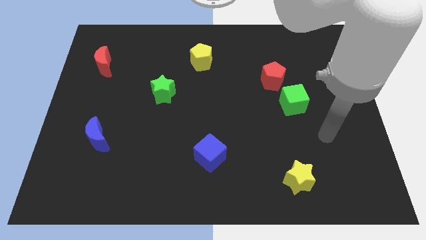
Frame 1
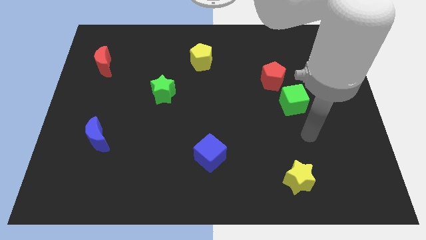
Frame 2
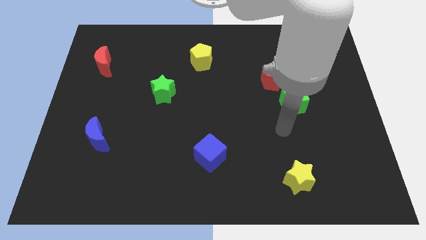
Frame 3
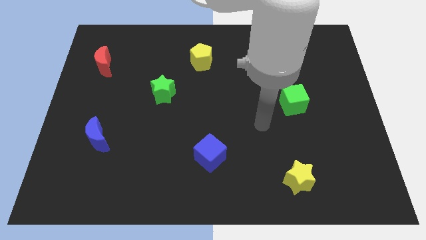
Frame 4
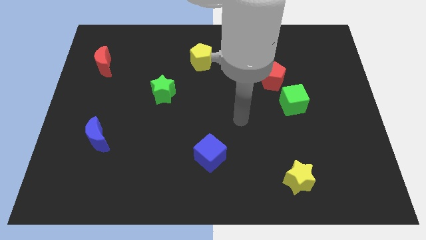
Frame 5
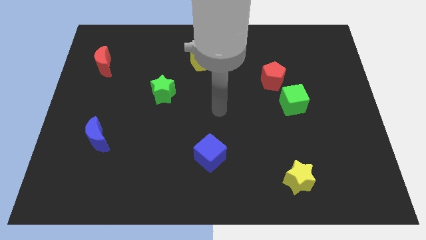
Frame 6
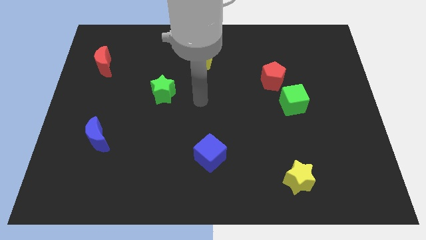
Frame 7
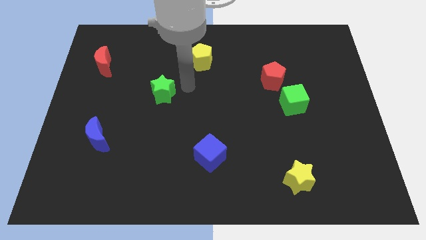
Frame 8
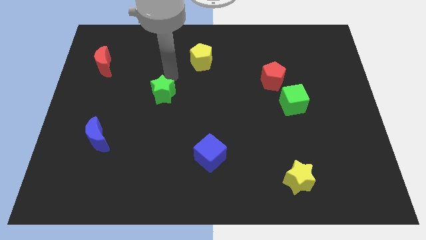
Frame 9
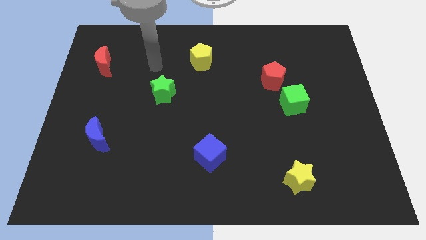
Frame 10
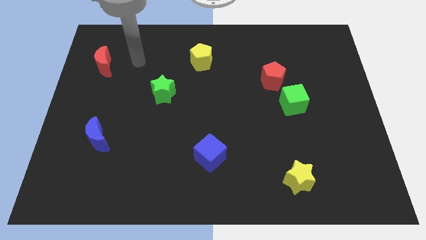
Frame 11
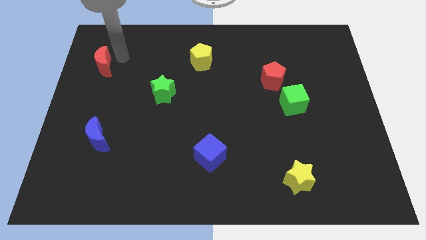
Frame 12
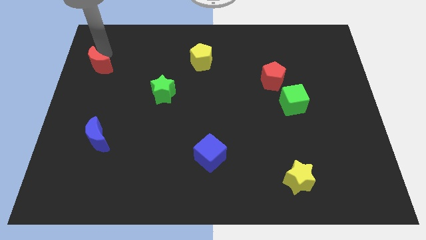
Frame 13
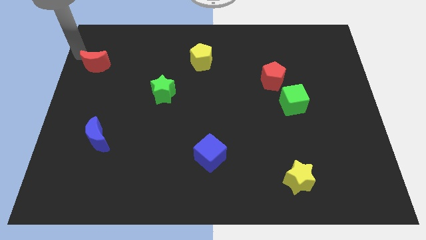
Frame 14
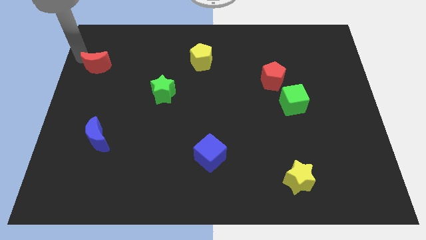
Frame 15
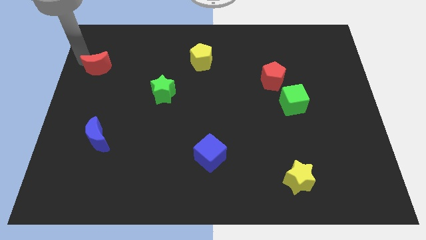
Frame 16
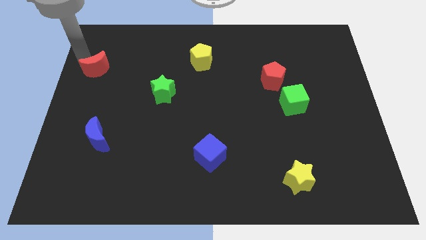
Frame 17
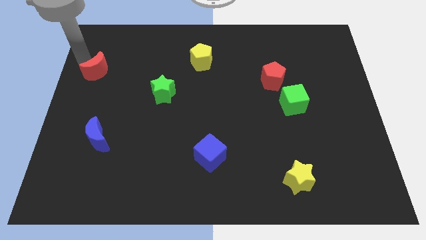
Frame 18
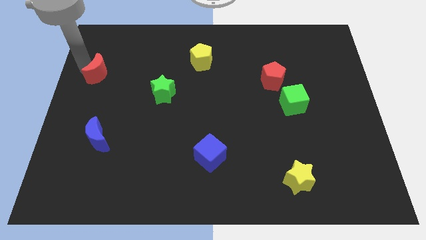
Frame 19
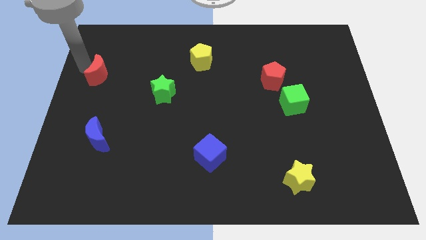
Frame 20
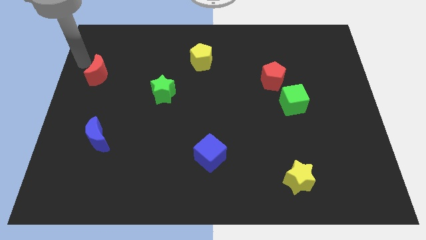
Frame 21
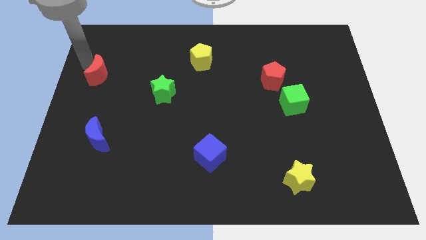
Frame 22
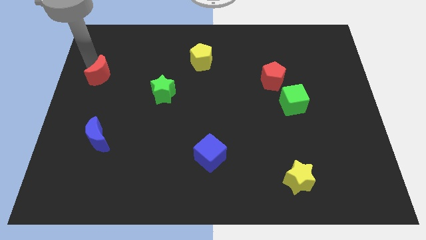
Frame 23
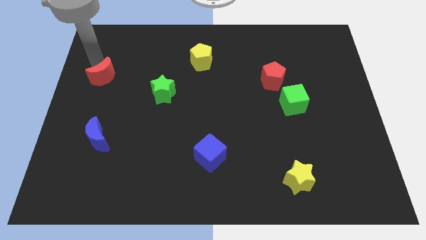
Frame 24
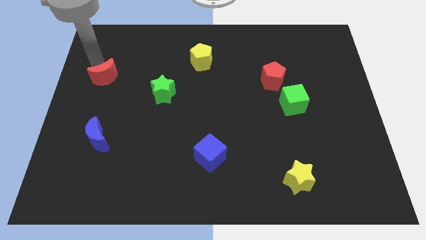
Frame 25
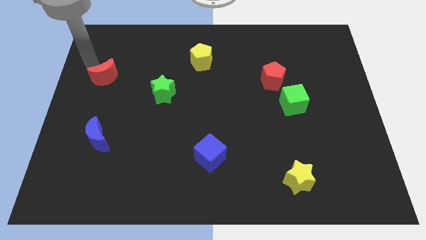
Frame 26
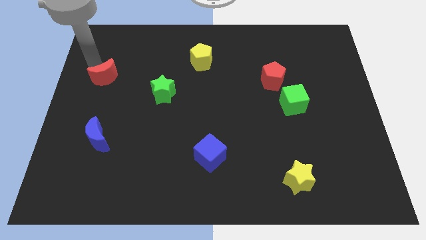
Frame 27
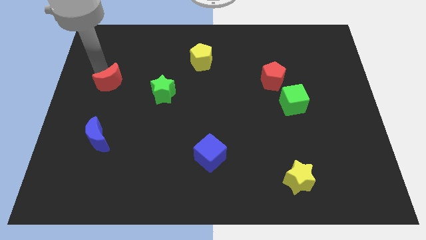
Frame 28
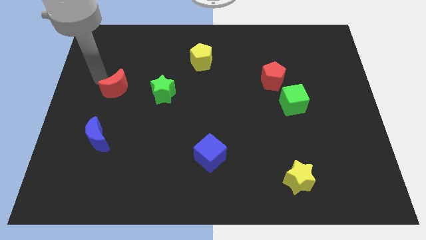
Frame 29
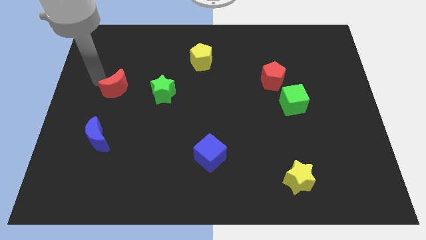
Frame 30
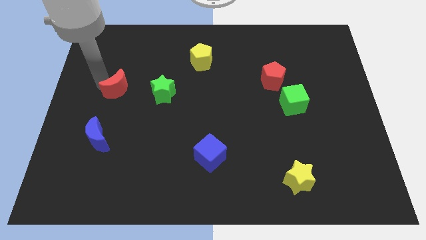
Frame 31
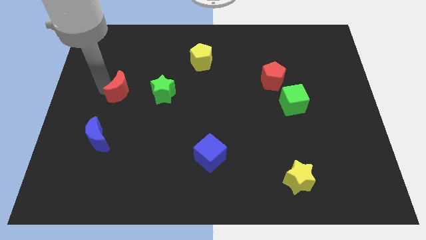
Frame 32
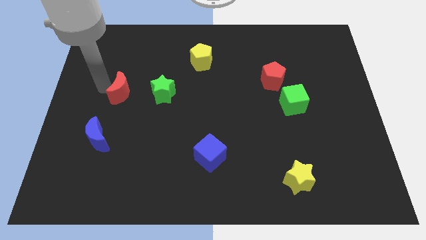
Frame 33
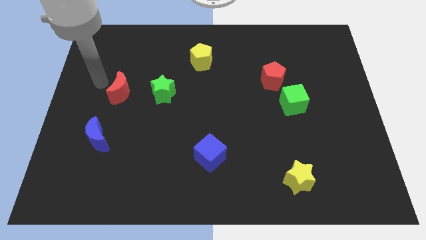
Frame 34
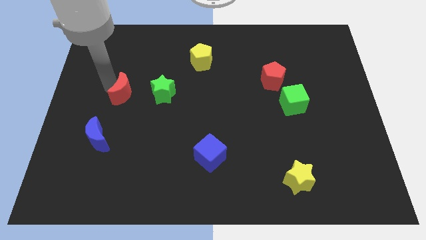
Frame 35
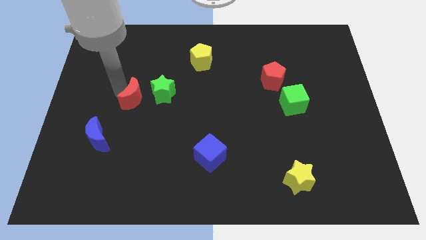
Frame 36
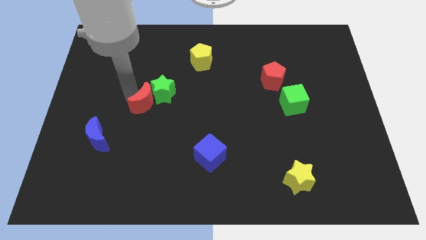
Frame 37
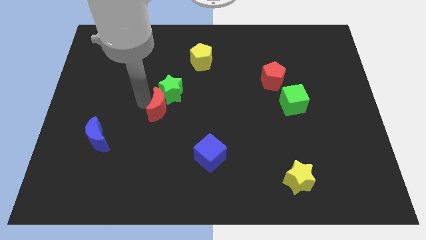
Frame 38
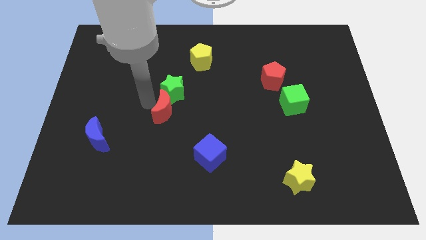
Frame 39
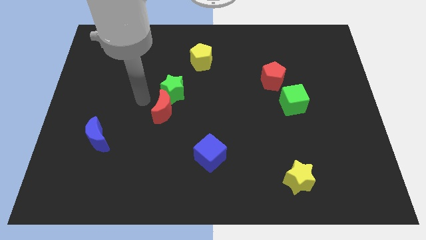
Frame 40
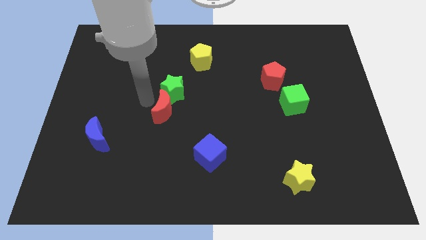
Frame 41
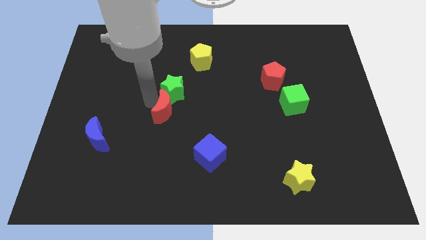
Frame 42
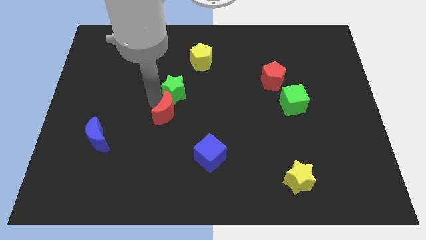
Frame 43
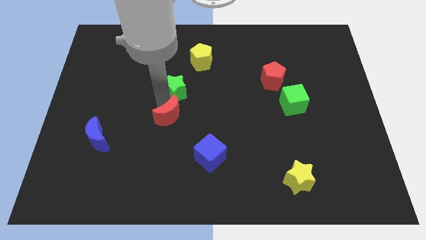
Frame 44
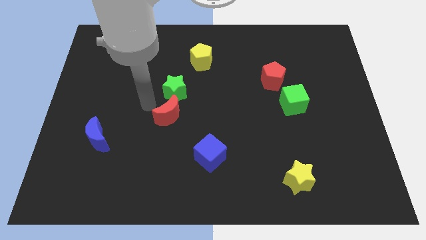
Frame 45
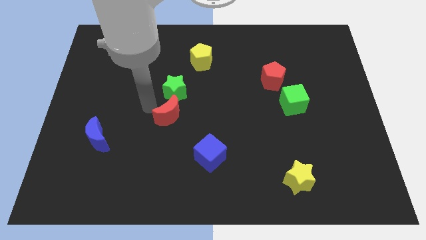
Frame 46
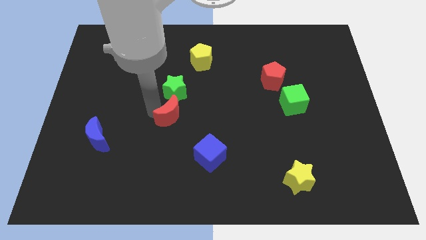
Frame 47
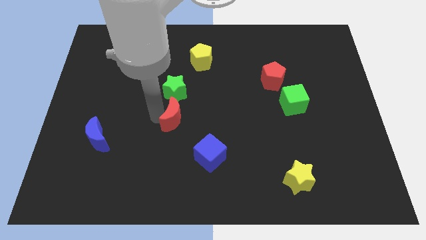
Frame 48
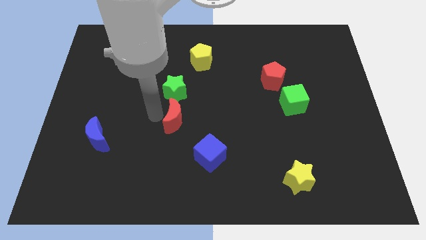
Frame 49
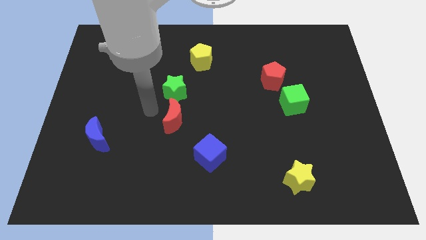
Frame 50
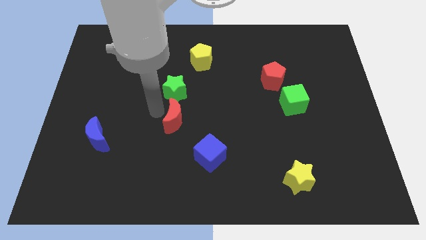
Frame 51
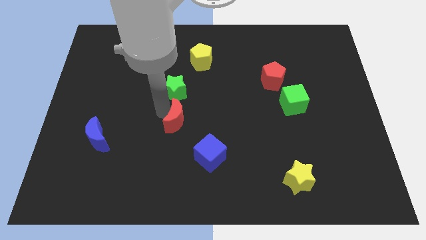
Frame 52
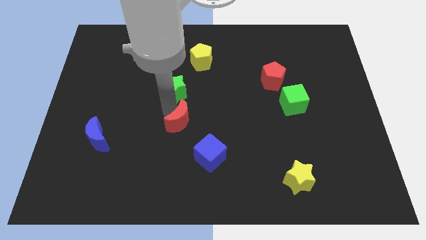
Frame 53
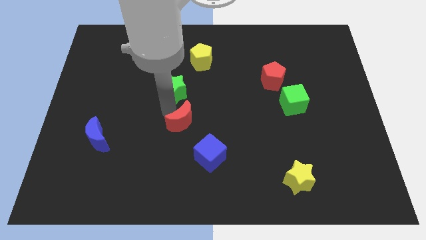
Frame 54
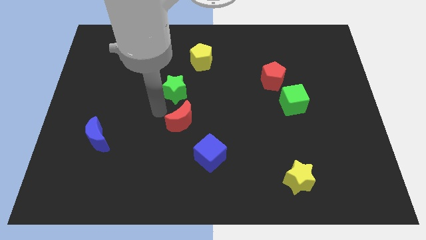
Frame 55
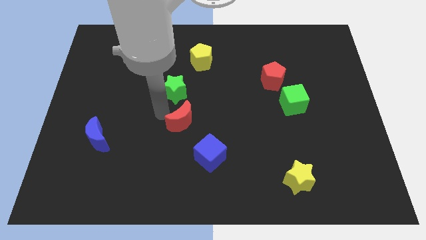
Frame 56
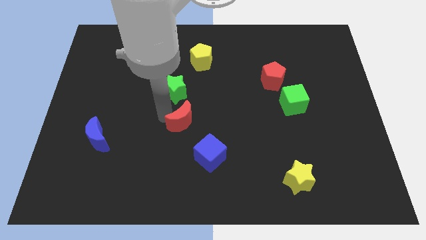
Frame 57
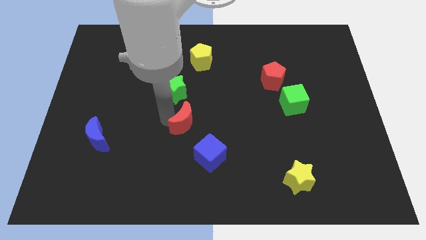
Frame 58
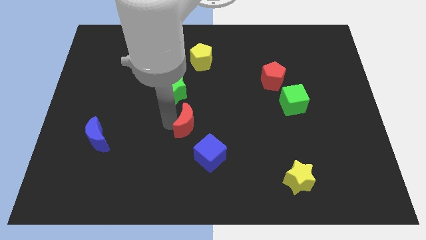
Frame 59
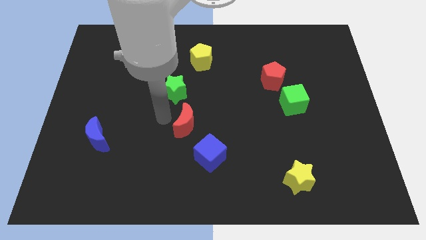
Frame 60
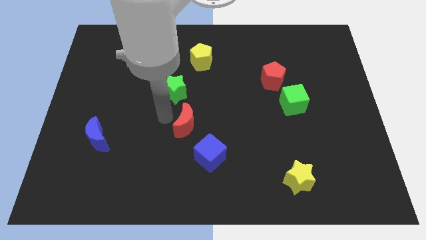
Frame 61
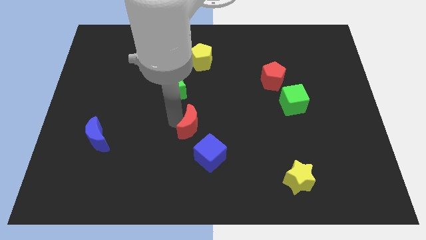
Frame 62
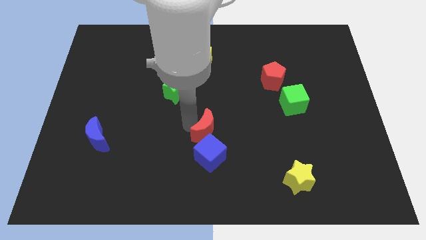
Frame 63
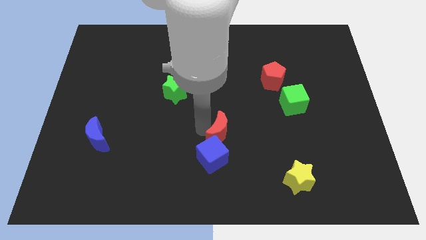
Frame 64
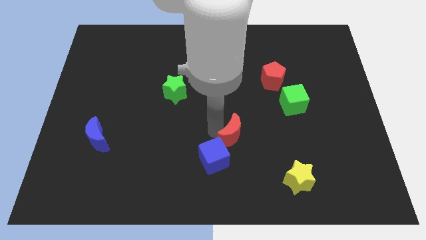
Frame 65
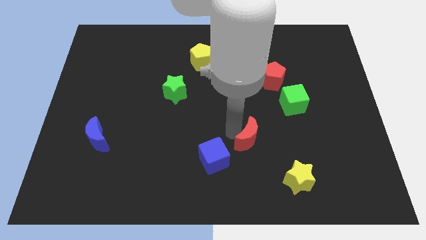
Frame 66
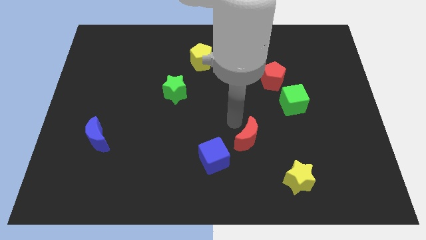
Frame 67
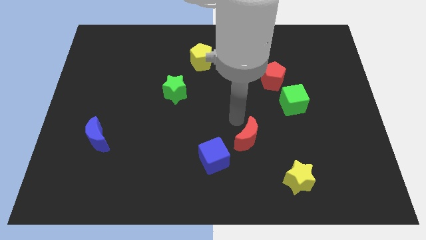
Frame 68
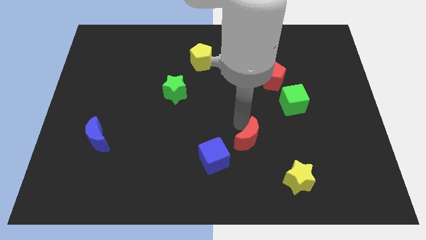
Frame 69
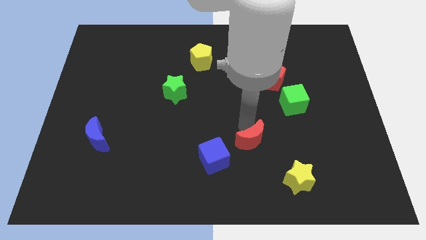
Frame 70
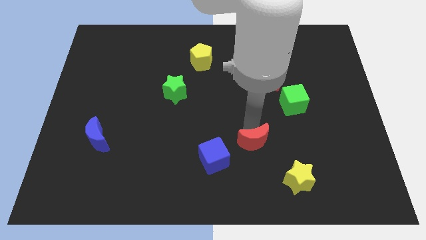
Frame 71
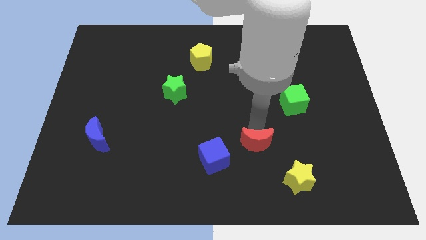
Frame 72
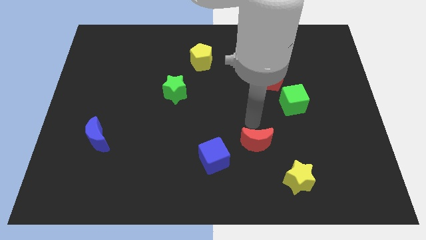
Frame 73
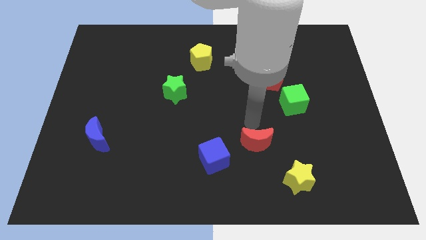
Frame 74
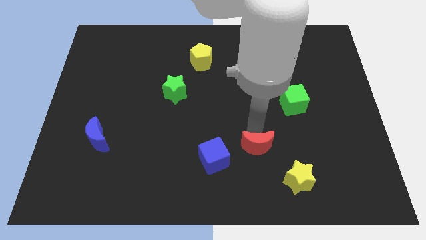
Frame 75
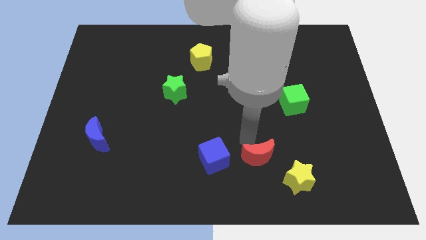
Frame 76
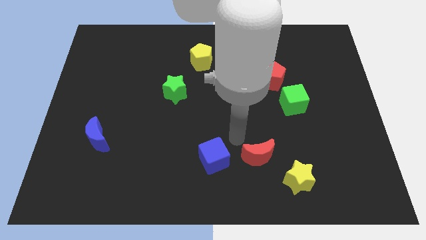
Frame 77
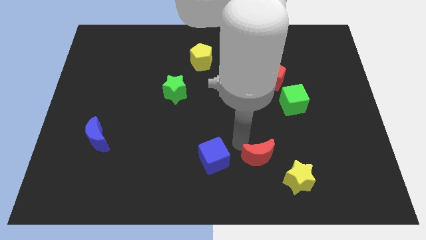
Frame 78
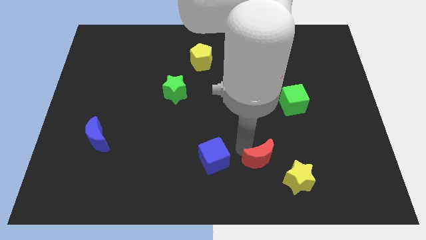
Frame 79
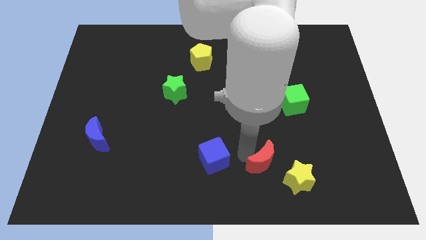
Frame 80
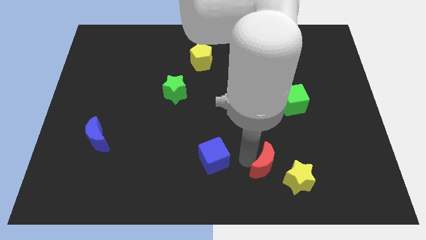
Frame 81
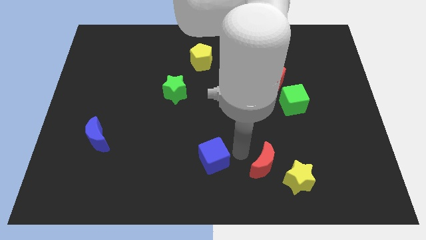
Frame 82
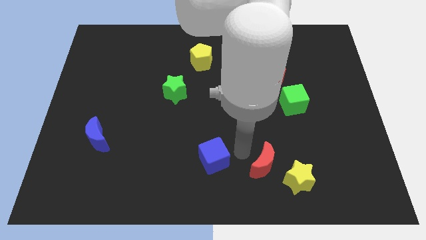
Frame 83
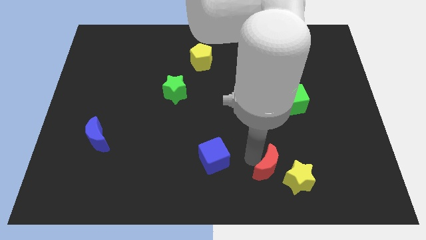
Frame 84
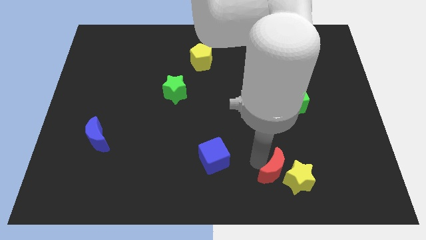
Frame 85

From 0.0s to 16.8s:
put the red moon to the yellow star
